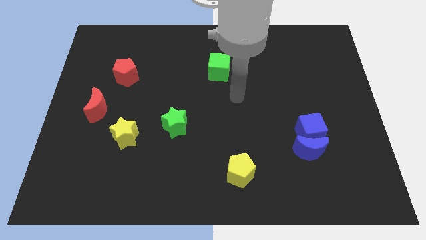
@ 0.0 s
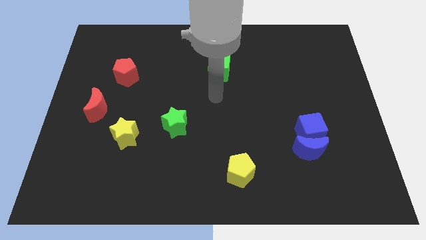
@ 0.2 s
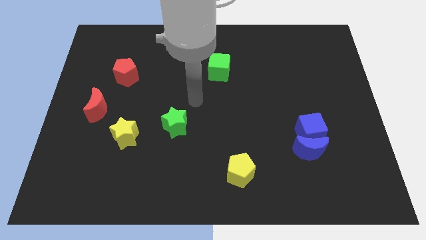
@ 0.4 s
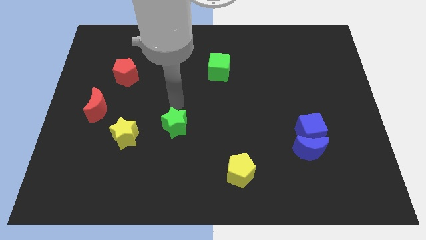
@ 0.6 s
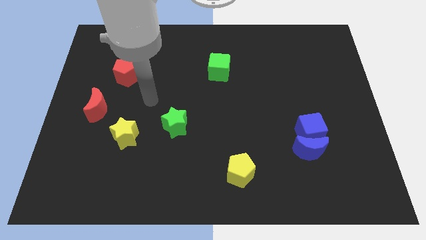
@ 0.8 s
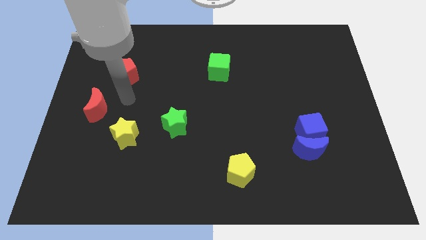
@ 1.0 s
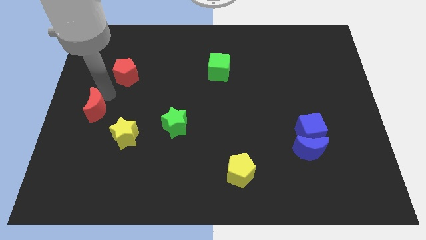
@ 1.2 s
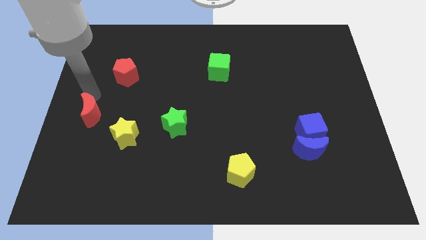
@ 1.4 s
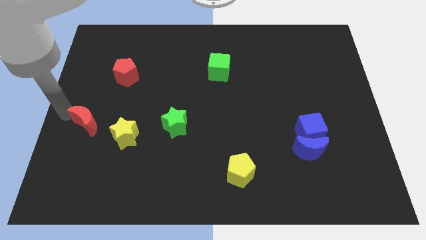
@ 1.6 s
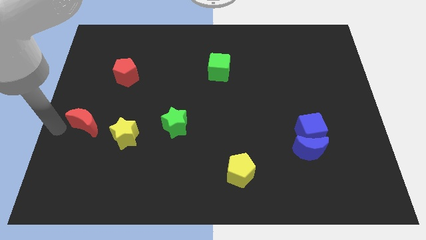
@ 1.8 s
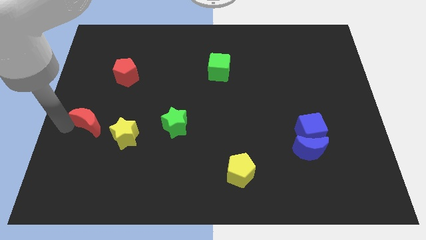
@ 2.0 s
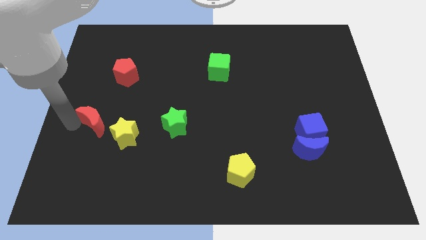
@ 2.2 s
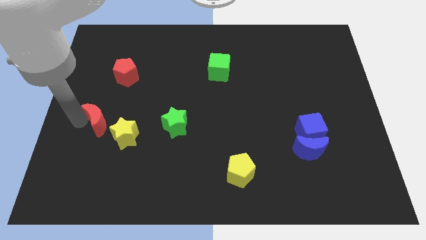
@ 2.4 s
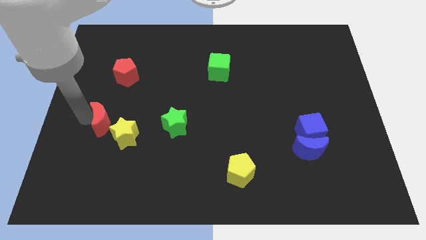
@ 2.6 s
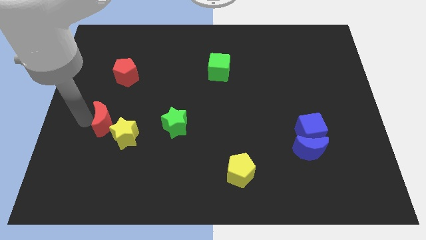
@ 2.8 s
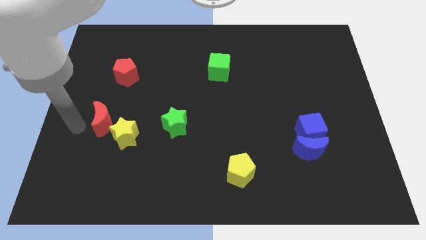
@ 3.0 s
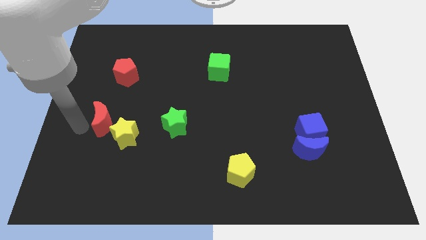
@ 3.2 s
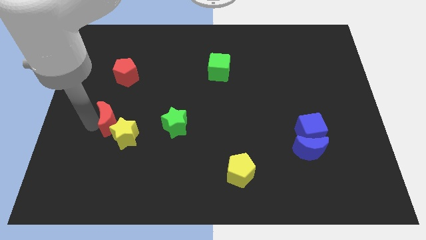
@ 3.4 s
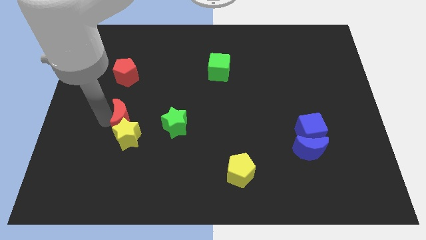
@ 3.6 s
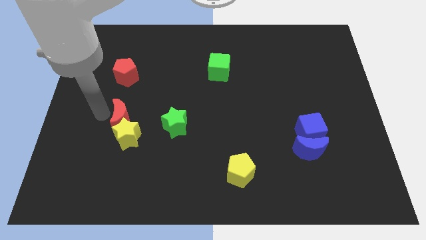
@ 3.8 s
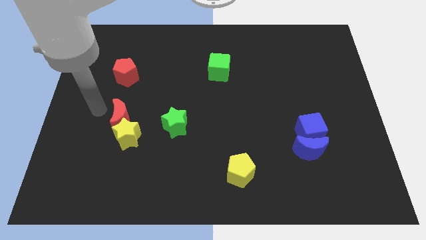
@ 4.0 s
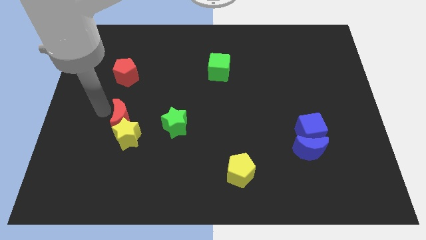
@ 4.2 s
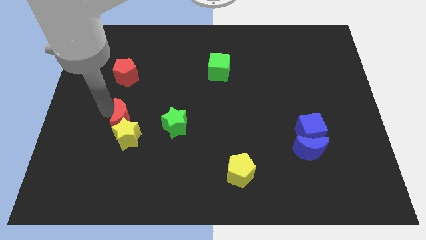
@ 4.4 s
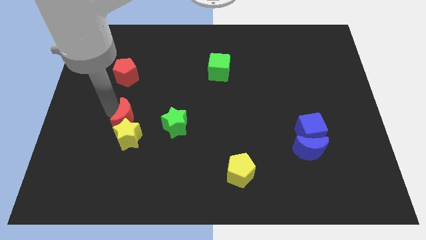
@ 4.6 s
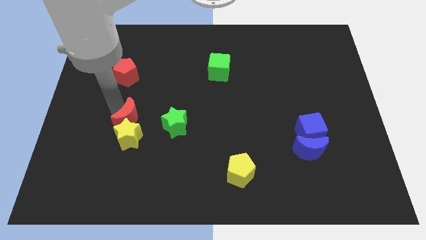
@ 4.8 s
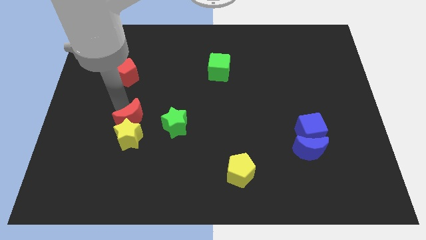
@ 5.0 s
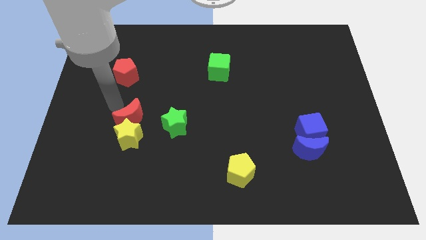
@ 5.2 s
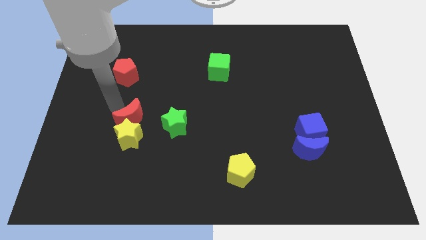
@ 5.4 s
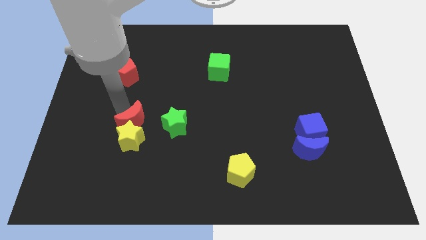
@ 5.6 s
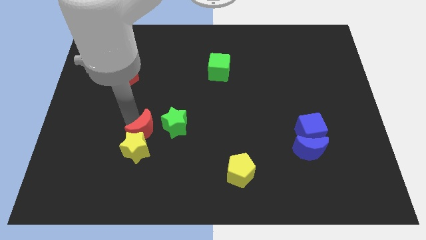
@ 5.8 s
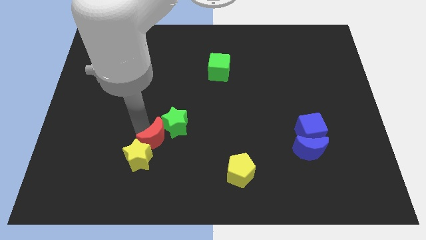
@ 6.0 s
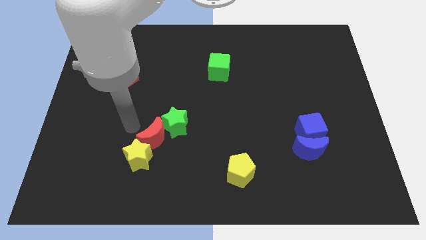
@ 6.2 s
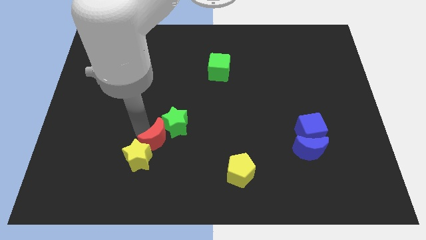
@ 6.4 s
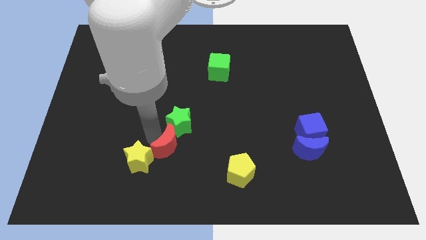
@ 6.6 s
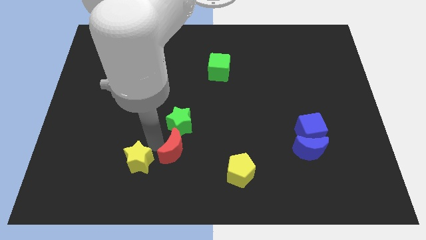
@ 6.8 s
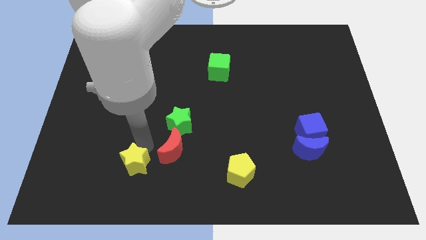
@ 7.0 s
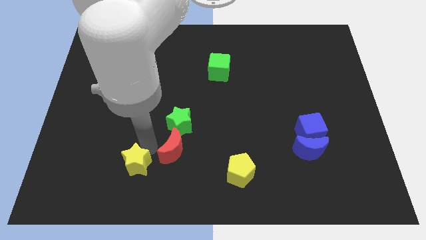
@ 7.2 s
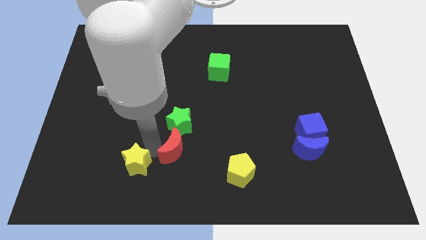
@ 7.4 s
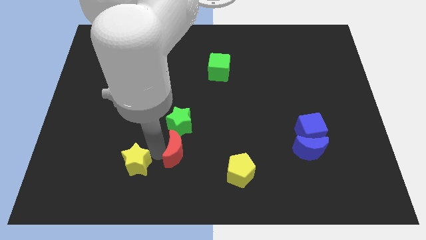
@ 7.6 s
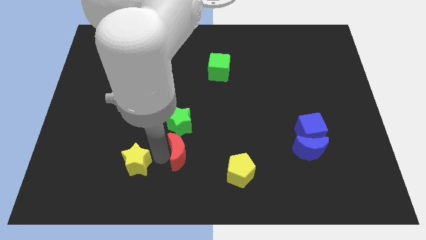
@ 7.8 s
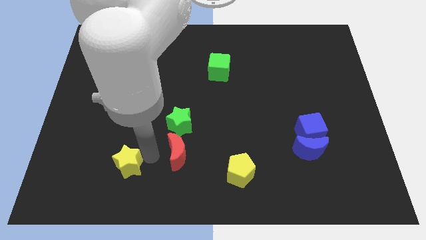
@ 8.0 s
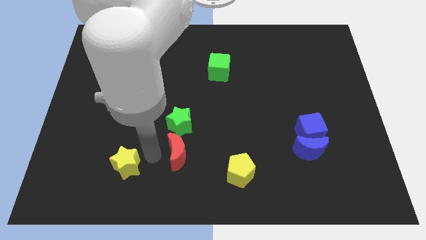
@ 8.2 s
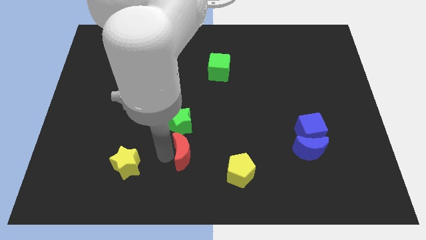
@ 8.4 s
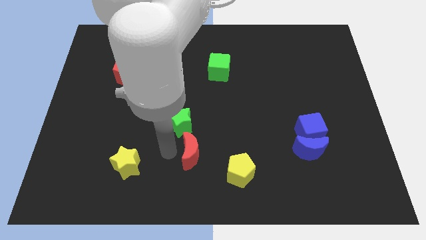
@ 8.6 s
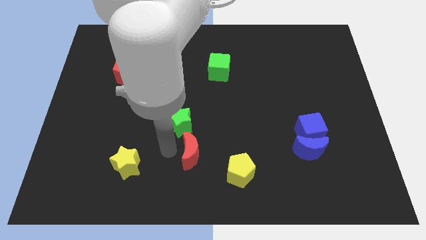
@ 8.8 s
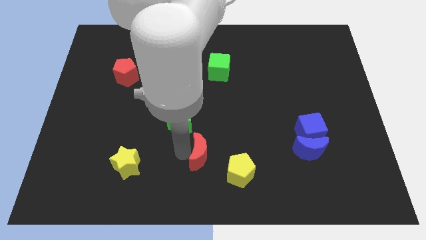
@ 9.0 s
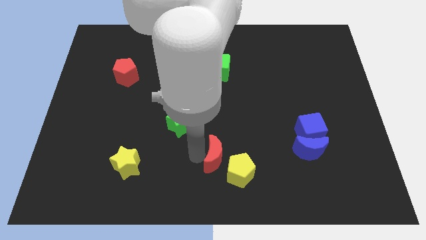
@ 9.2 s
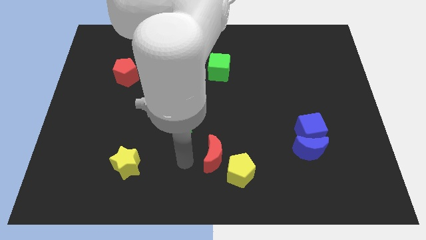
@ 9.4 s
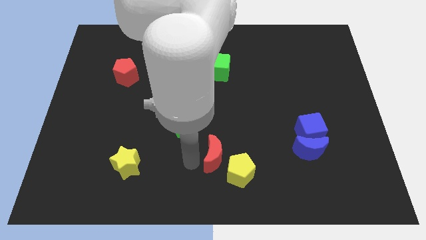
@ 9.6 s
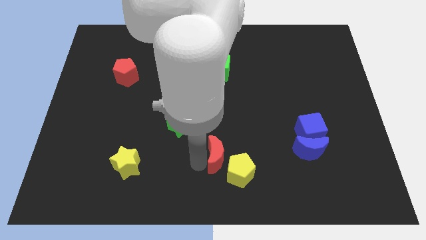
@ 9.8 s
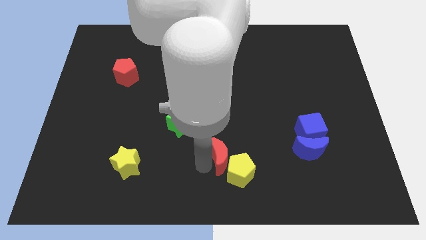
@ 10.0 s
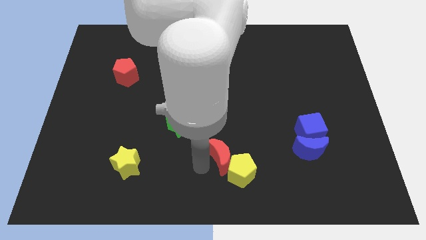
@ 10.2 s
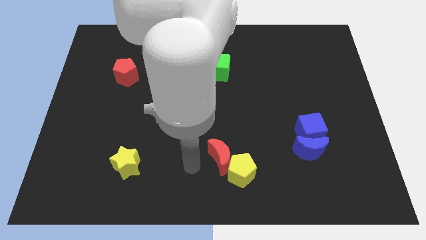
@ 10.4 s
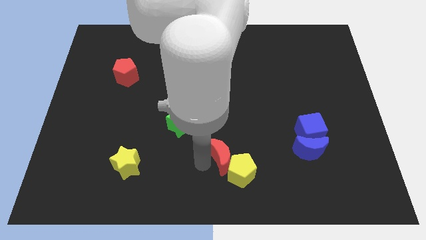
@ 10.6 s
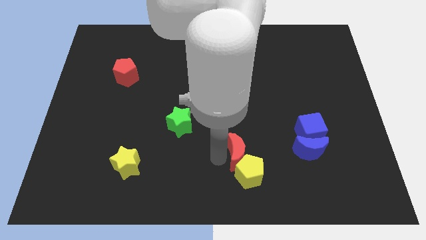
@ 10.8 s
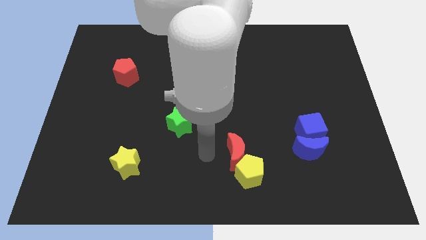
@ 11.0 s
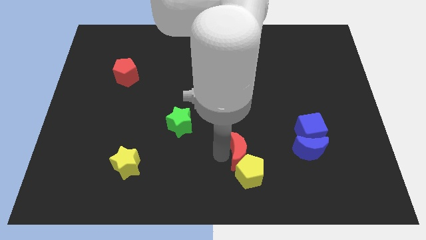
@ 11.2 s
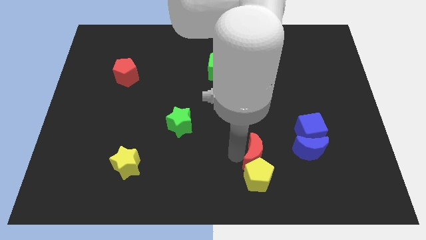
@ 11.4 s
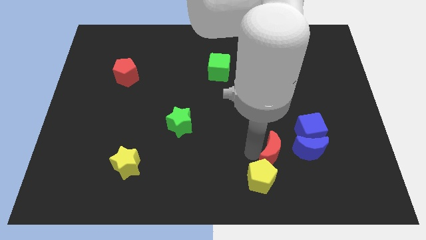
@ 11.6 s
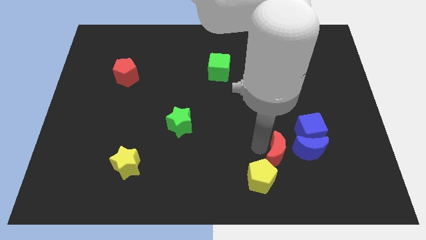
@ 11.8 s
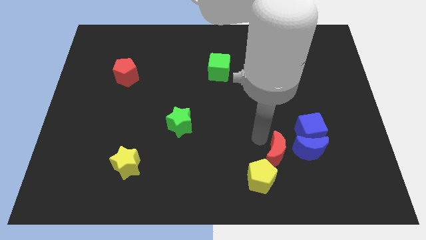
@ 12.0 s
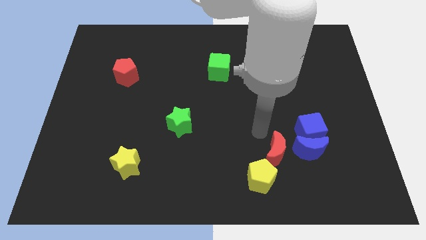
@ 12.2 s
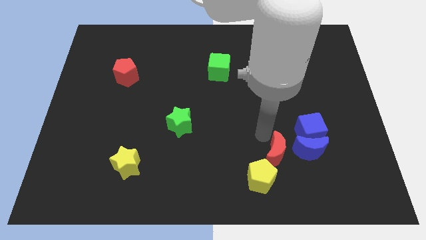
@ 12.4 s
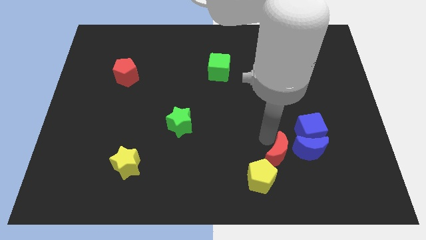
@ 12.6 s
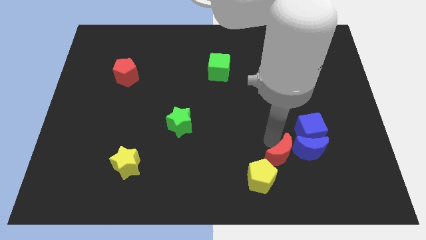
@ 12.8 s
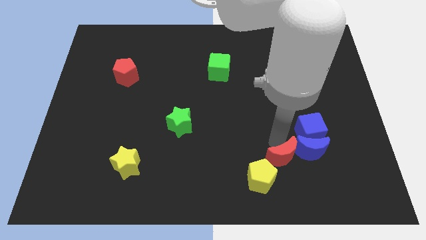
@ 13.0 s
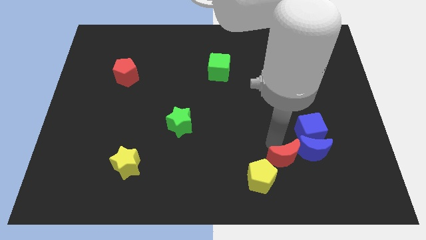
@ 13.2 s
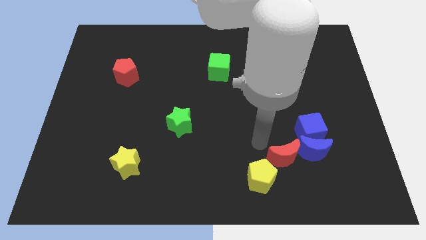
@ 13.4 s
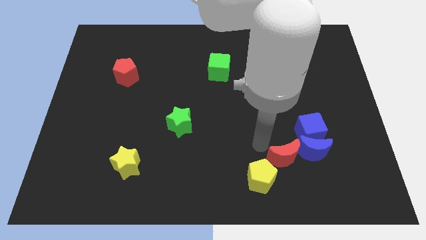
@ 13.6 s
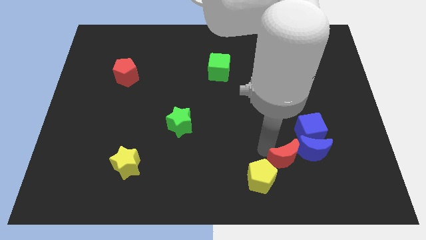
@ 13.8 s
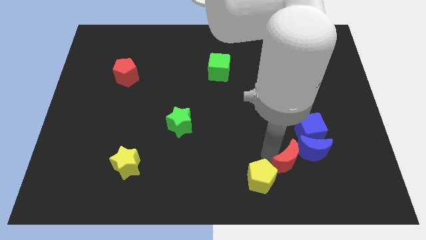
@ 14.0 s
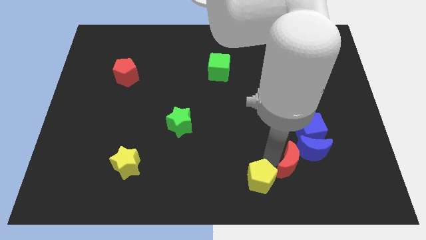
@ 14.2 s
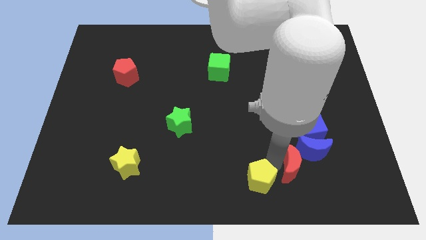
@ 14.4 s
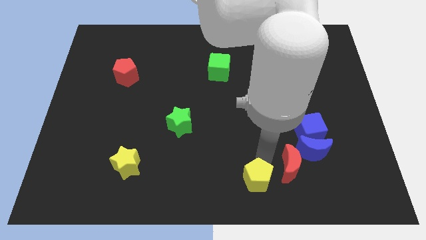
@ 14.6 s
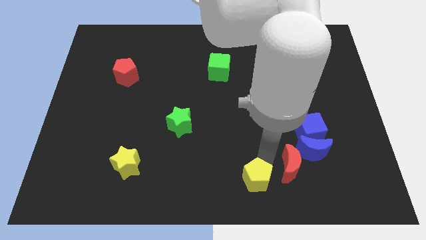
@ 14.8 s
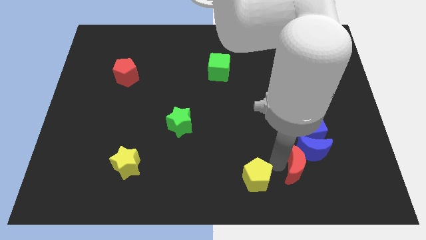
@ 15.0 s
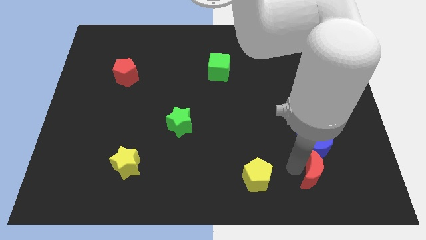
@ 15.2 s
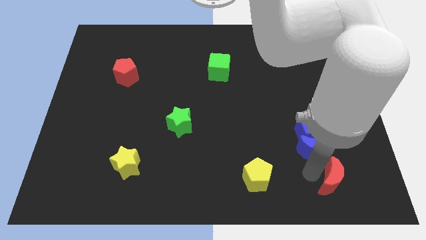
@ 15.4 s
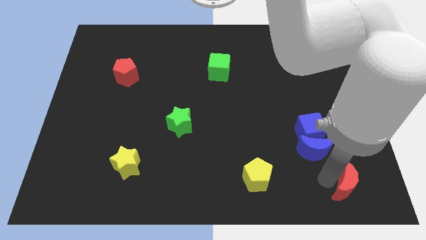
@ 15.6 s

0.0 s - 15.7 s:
move the red moon to the bottom right corner

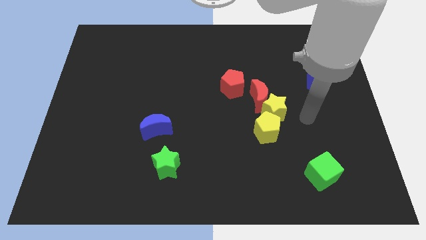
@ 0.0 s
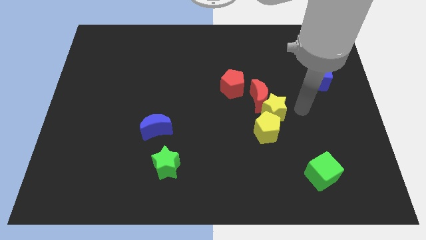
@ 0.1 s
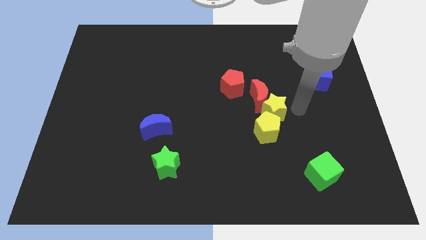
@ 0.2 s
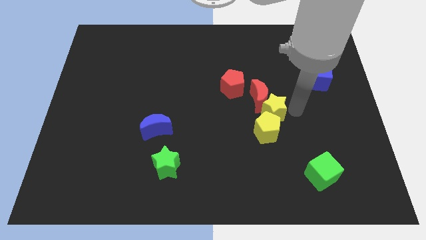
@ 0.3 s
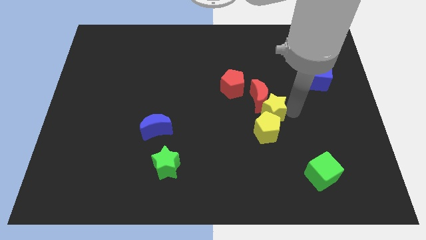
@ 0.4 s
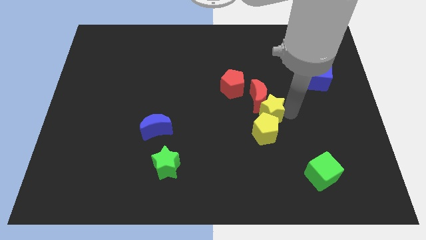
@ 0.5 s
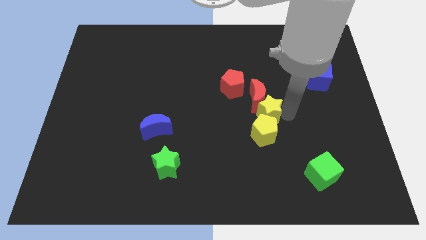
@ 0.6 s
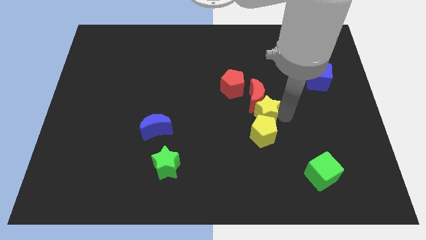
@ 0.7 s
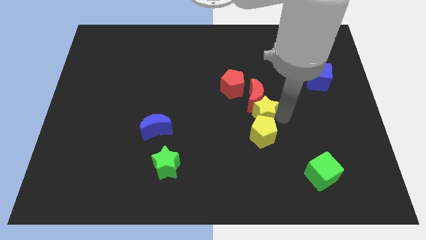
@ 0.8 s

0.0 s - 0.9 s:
put the yellow star to the center of the board
